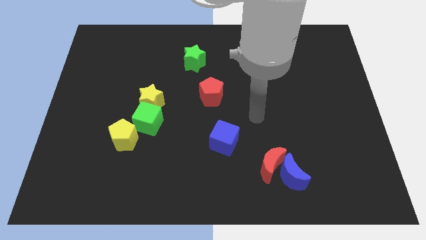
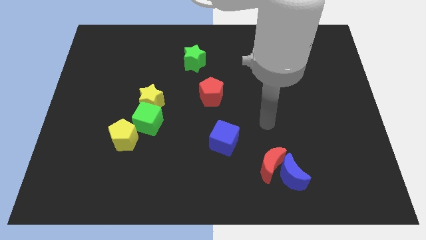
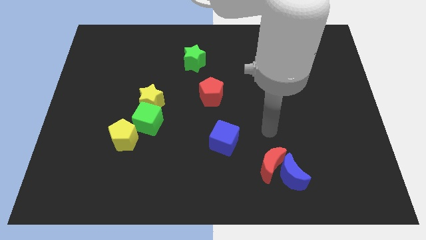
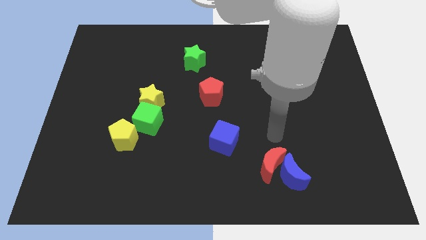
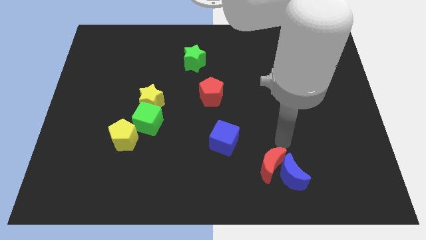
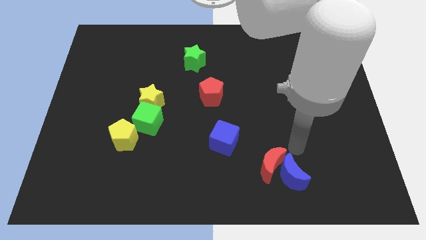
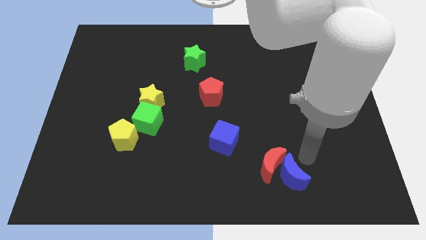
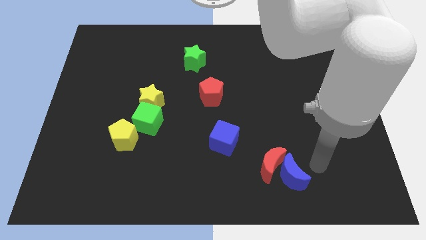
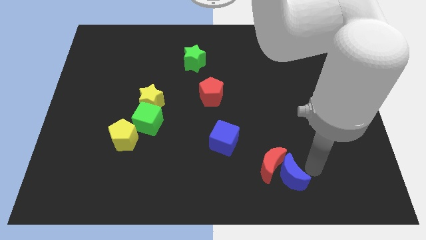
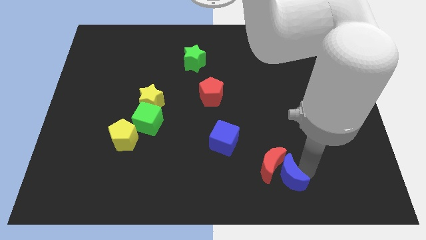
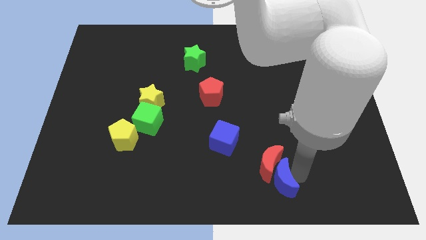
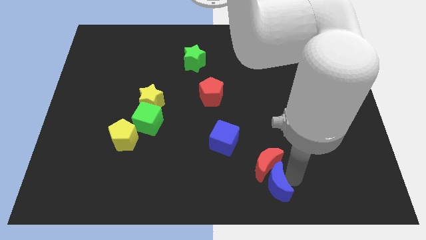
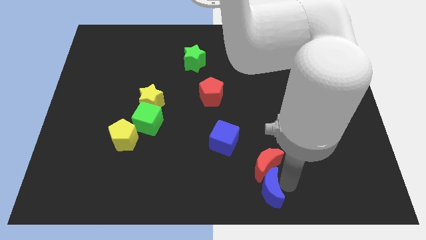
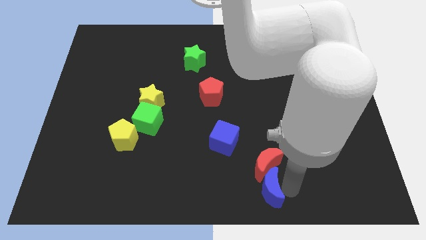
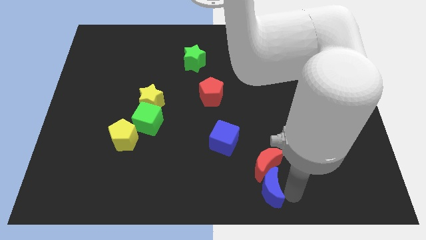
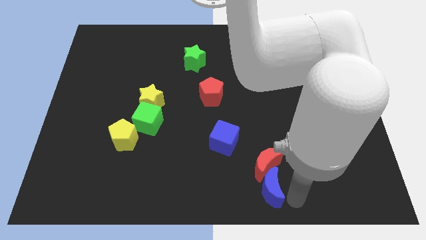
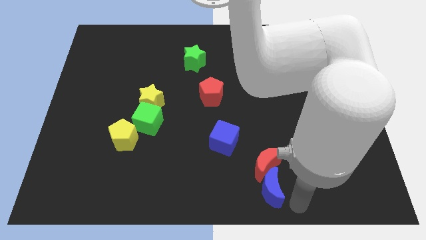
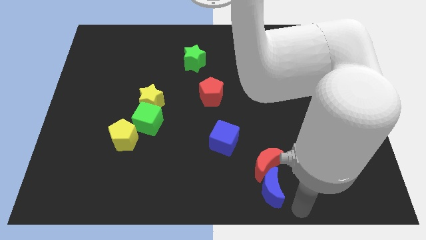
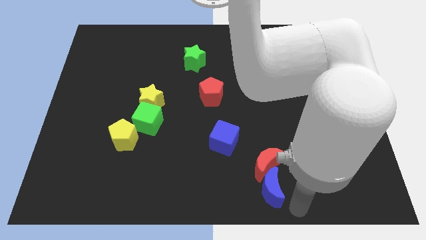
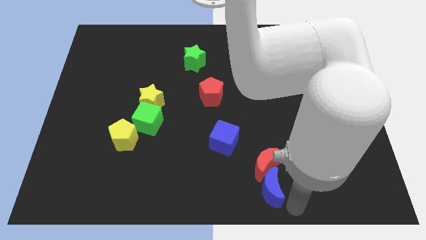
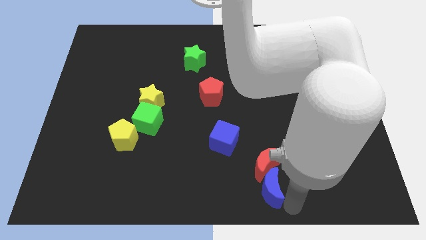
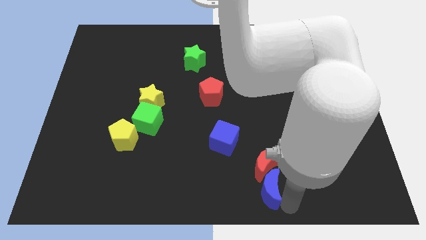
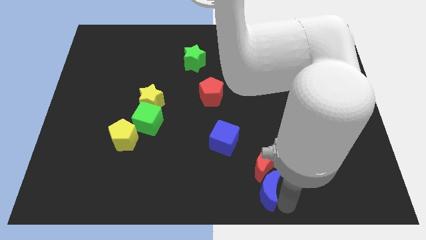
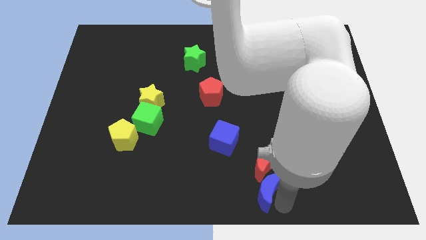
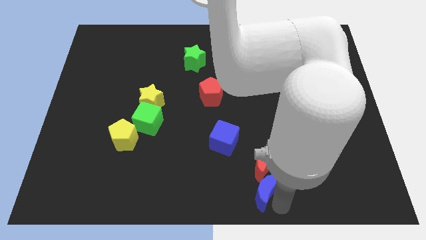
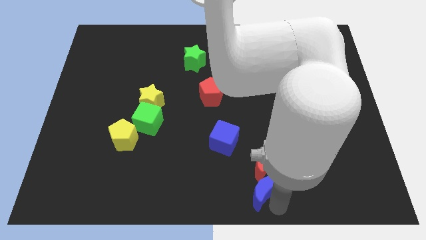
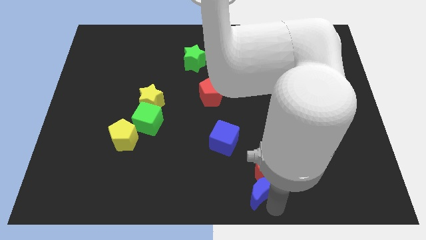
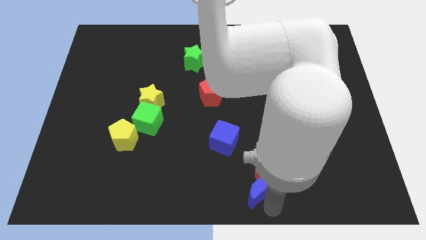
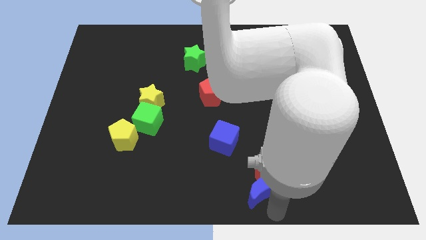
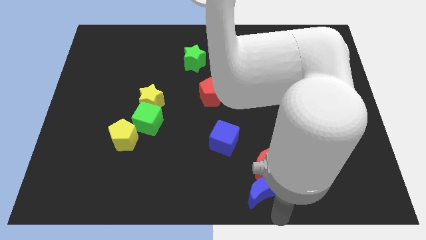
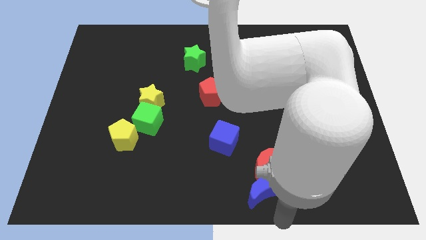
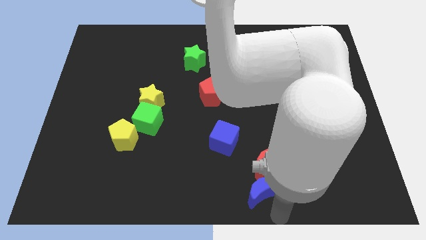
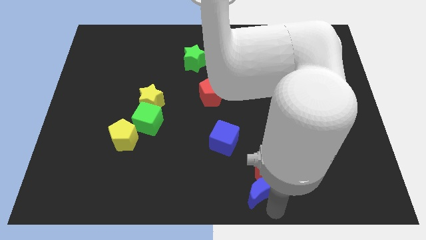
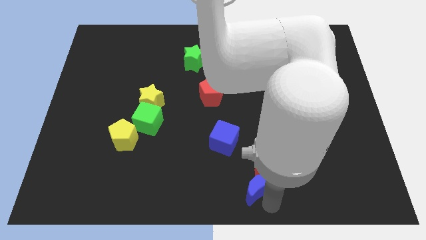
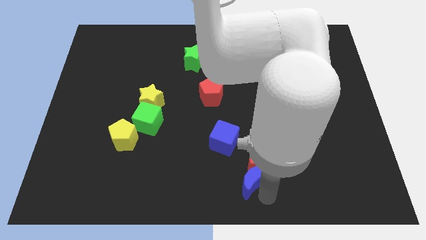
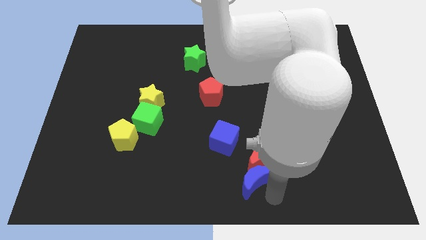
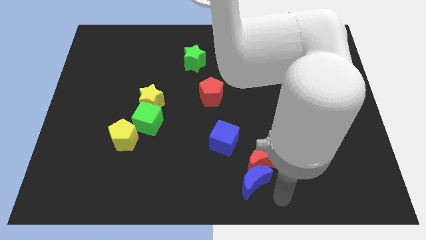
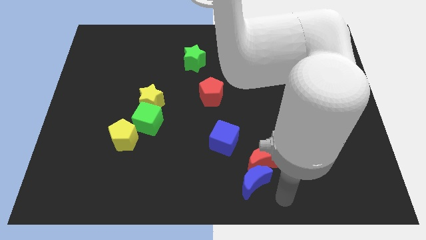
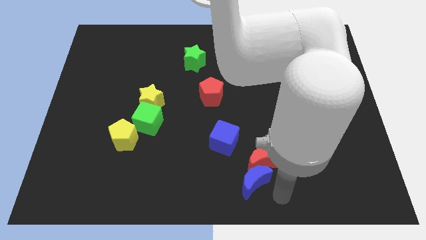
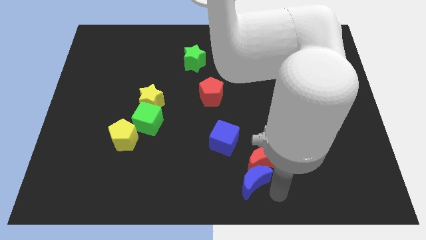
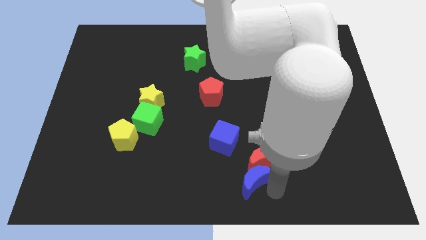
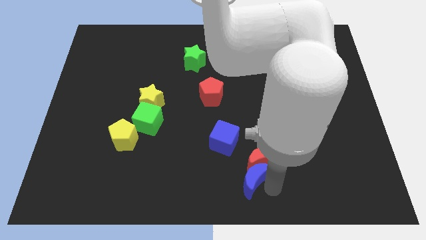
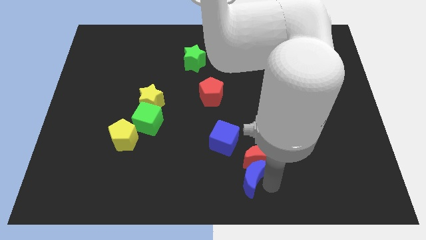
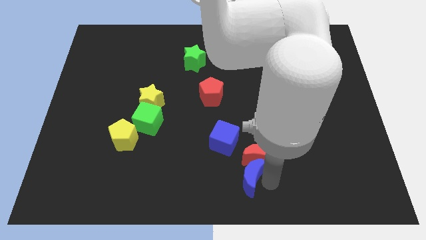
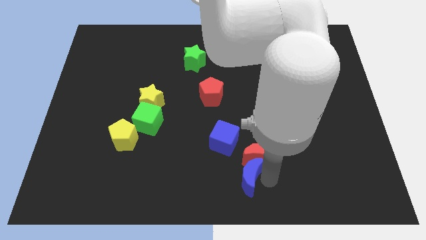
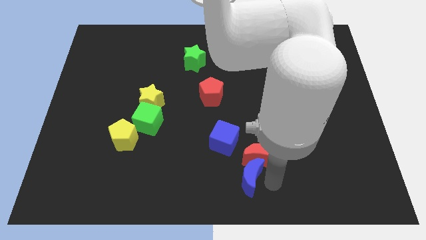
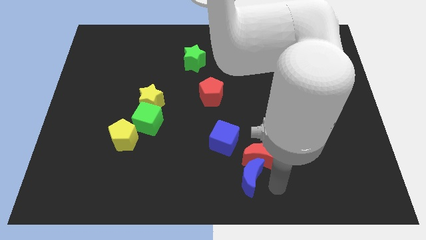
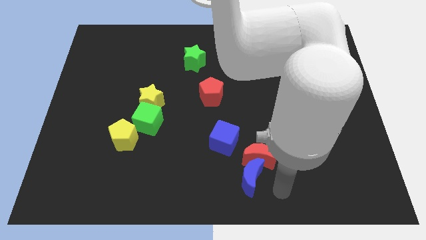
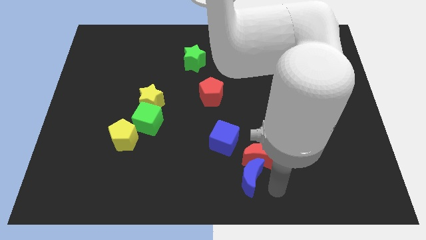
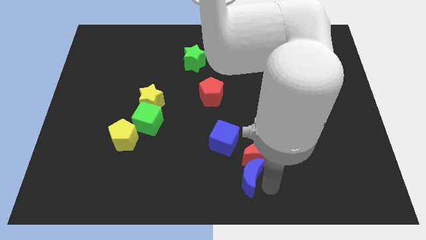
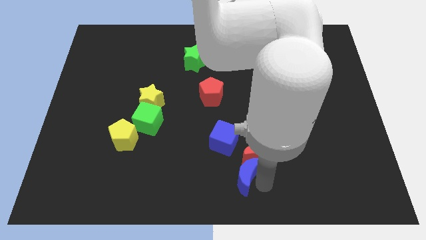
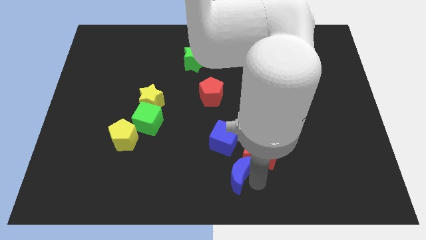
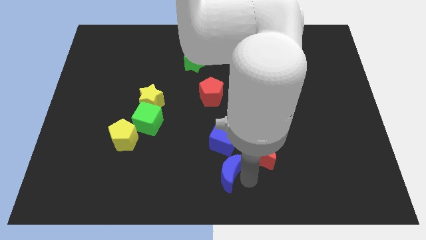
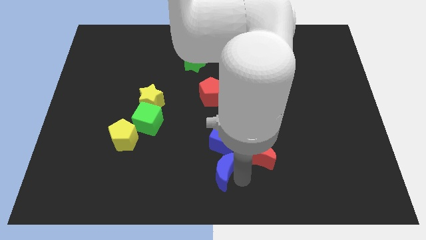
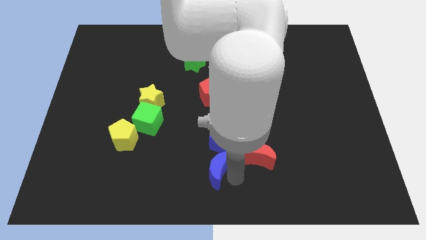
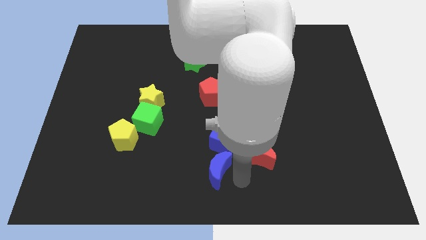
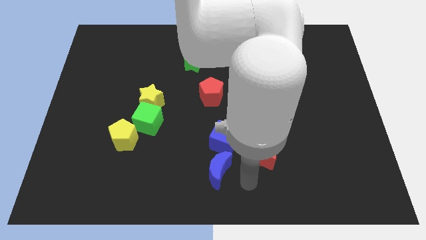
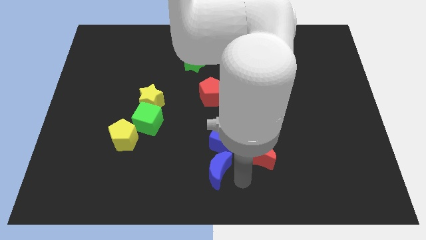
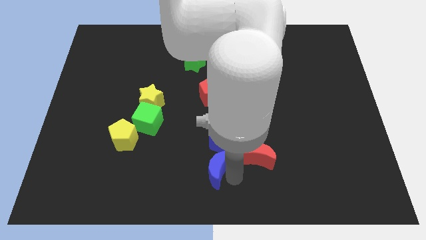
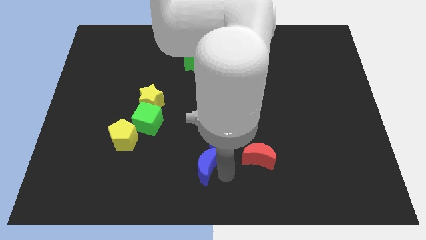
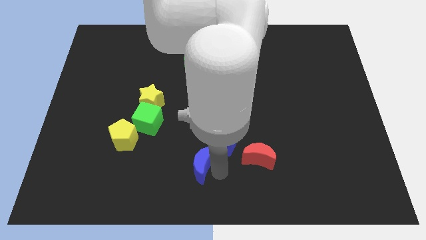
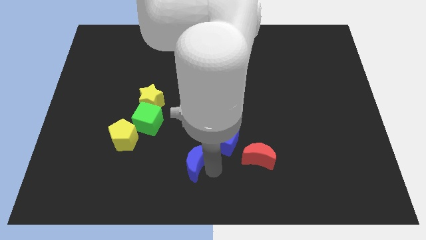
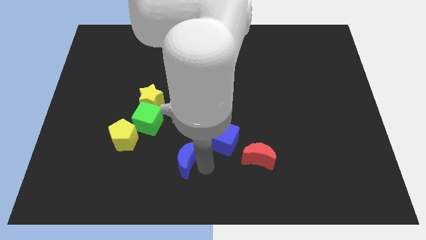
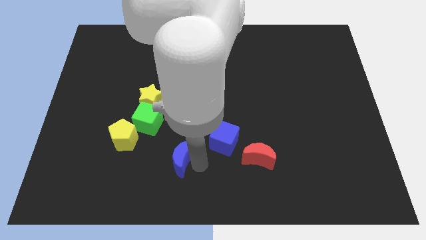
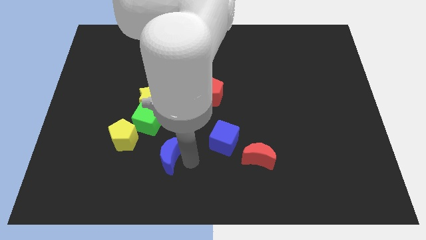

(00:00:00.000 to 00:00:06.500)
slide the blue moon to the bottom right of the yellow pentagon

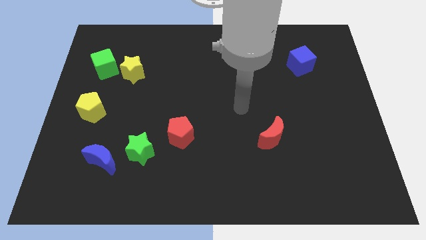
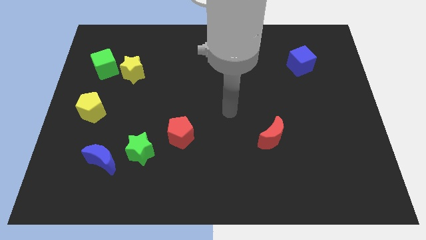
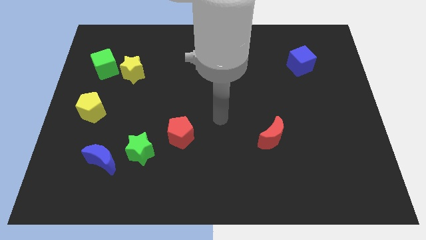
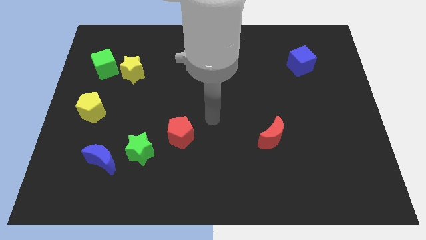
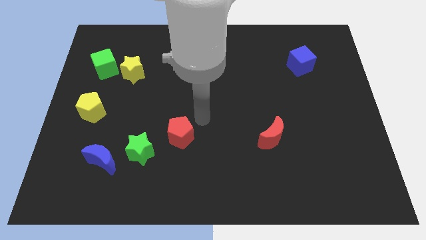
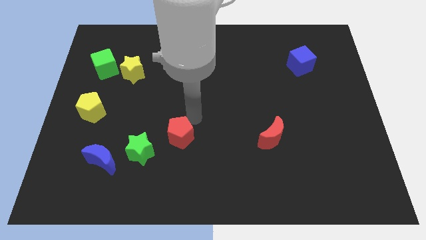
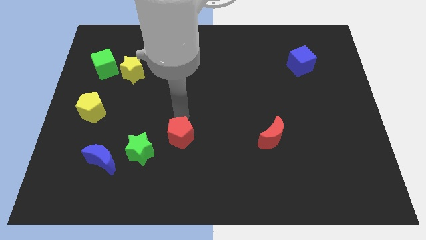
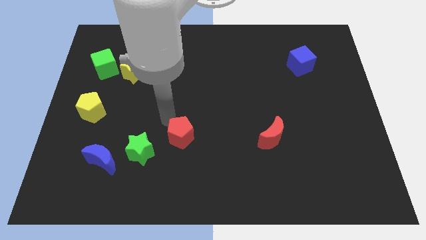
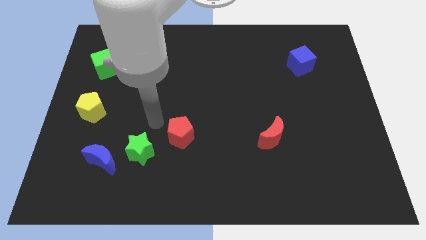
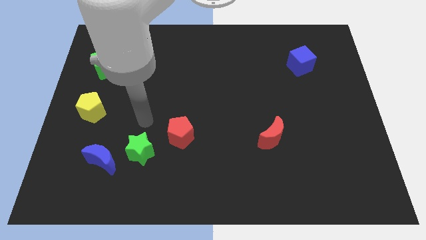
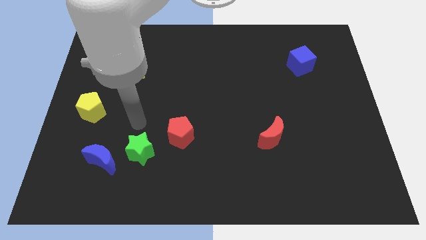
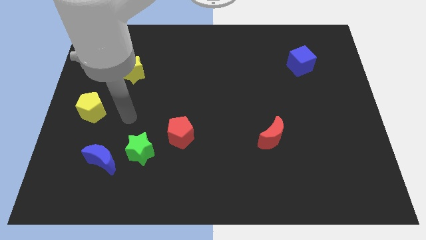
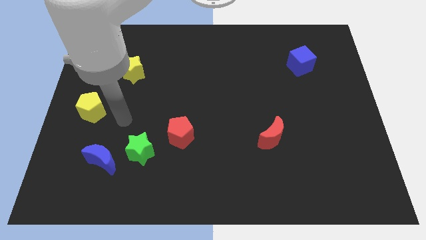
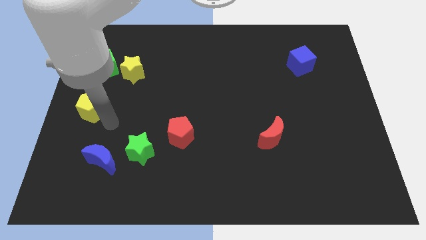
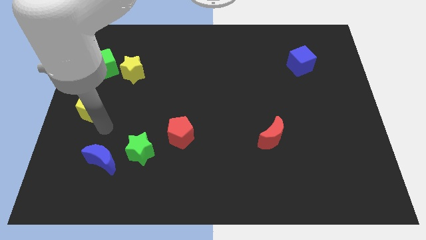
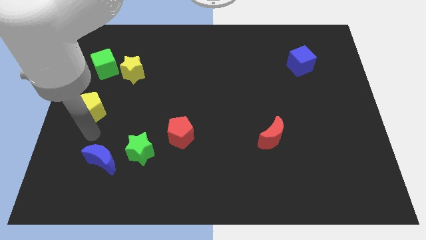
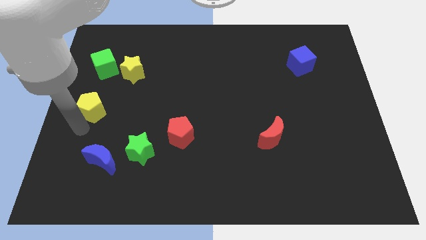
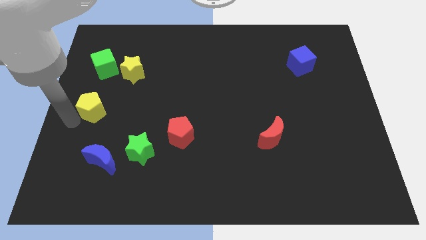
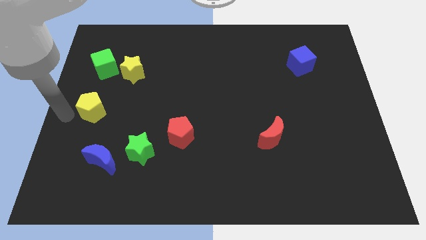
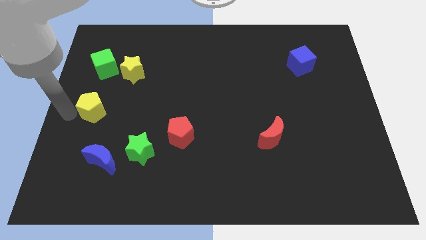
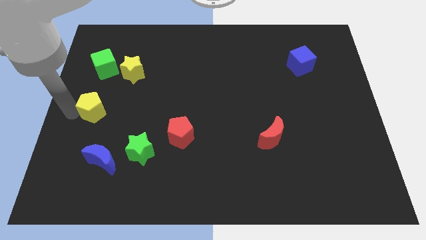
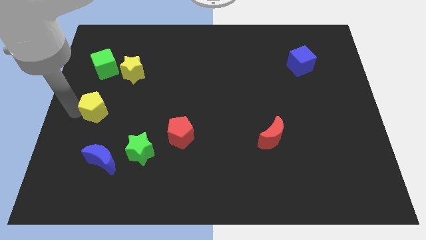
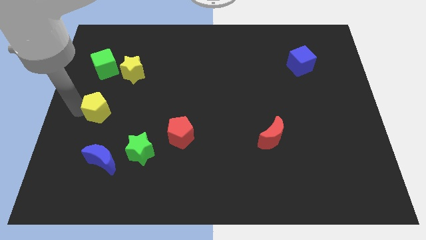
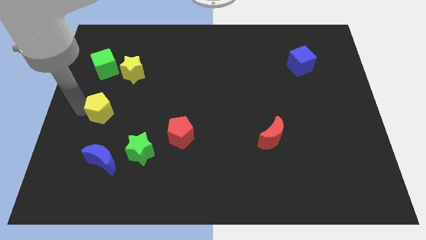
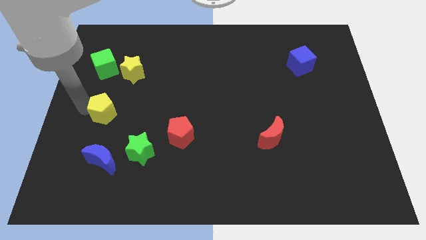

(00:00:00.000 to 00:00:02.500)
move the yellow pentagon to the bottom of the yellow star
